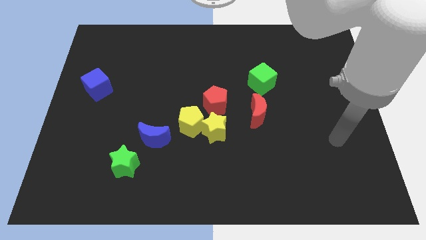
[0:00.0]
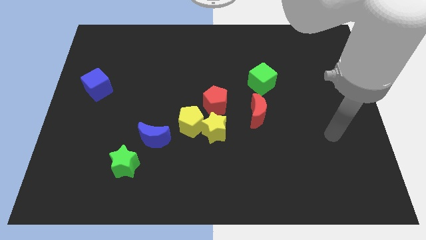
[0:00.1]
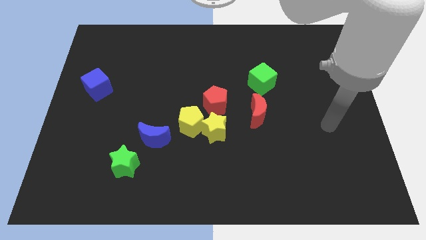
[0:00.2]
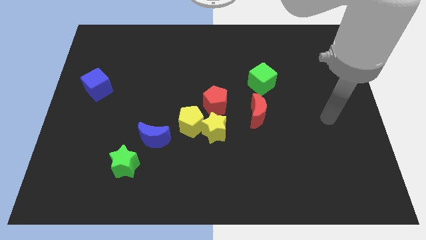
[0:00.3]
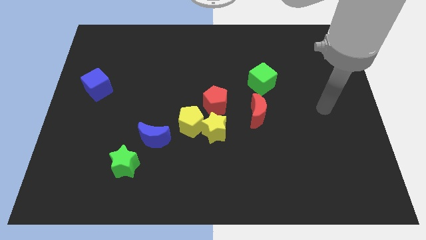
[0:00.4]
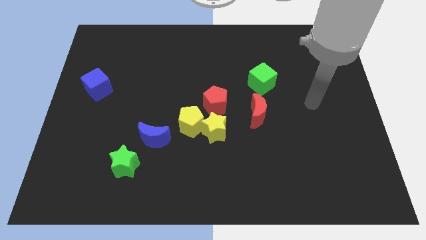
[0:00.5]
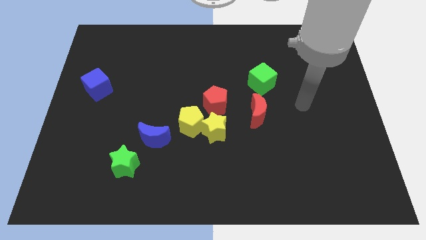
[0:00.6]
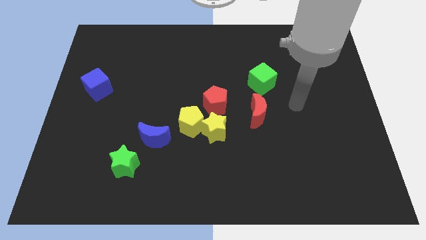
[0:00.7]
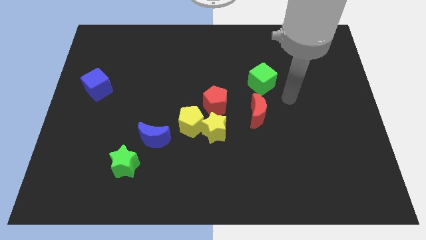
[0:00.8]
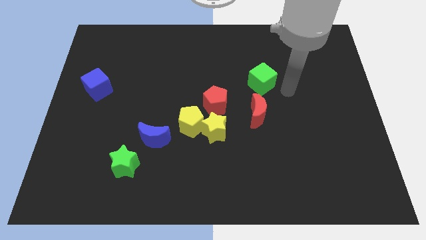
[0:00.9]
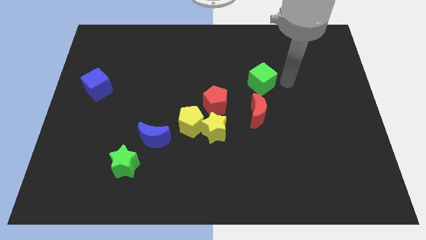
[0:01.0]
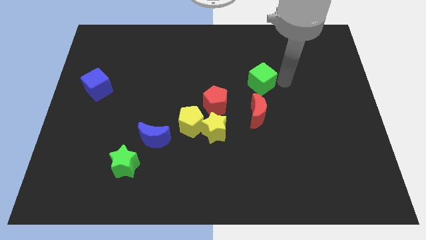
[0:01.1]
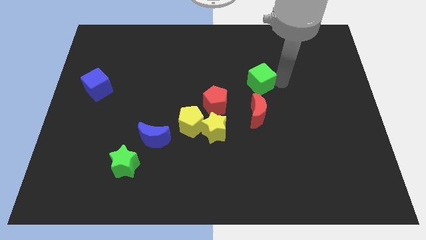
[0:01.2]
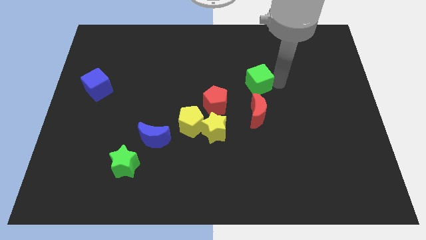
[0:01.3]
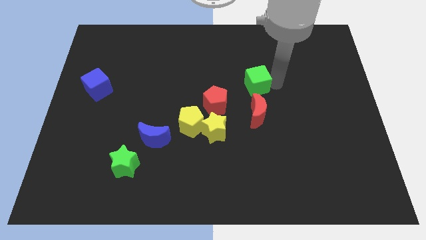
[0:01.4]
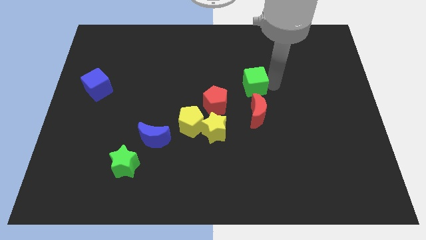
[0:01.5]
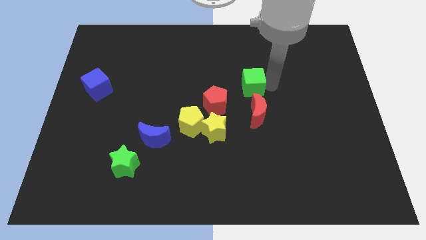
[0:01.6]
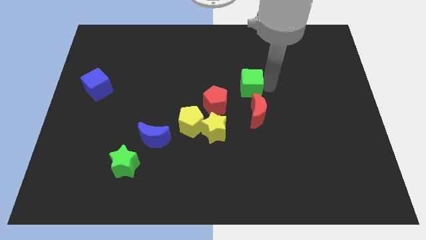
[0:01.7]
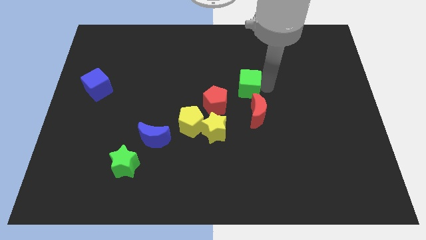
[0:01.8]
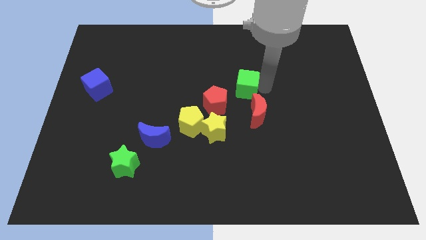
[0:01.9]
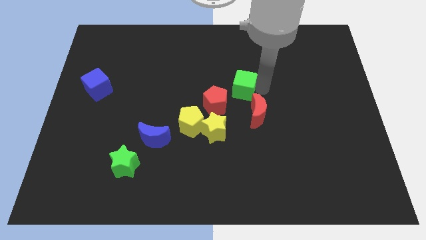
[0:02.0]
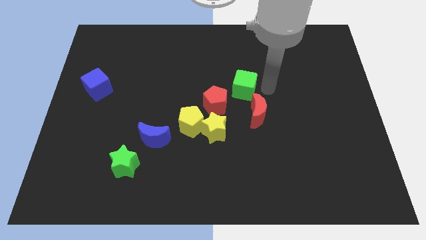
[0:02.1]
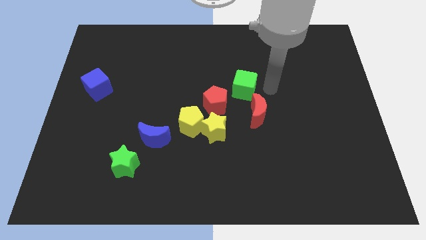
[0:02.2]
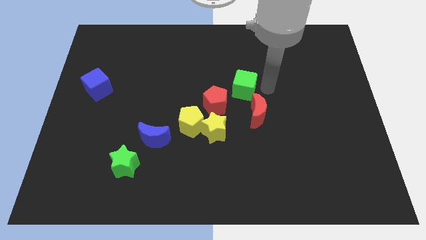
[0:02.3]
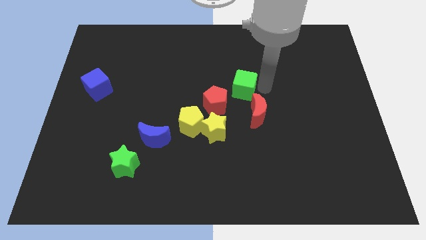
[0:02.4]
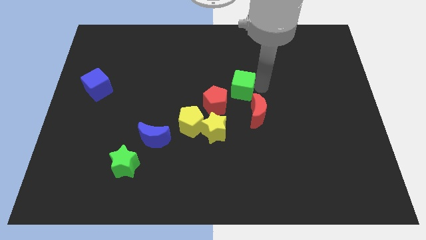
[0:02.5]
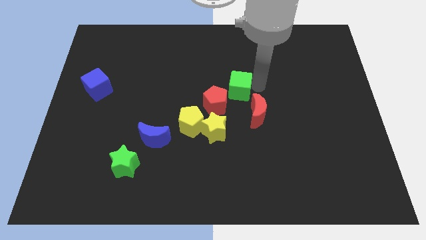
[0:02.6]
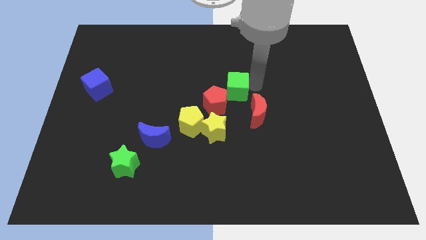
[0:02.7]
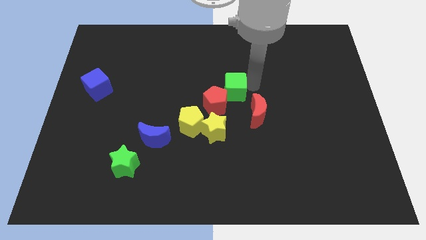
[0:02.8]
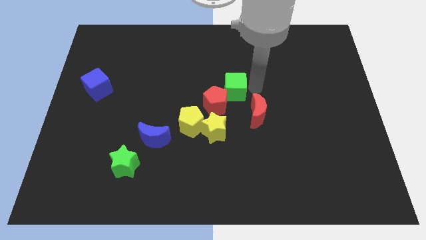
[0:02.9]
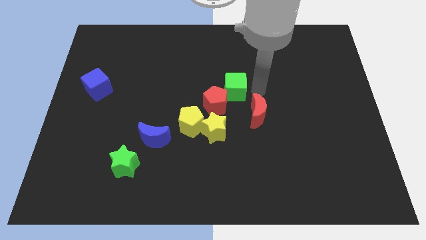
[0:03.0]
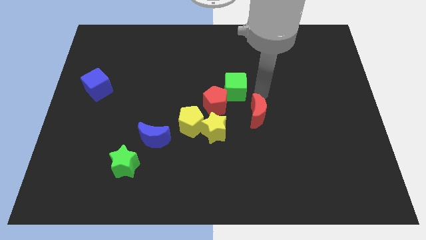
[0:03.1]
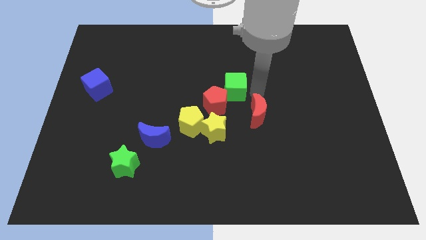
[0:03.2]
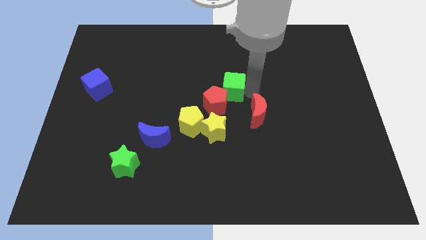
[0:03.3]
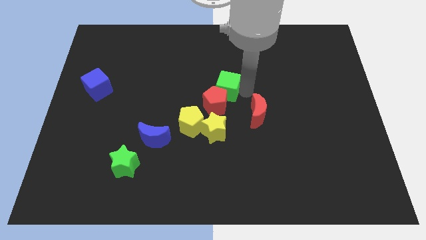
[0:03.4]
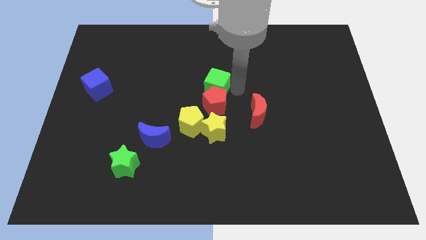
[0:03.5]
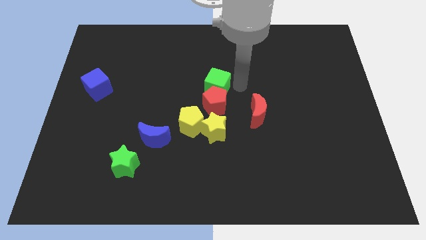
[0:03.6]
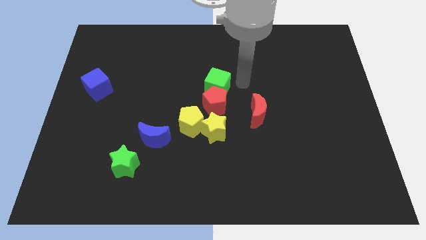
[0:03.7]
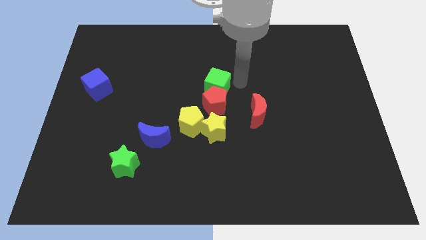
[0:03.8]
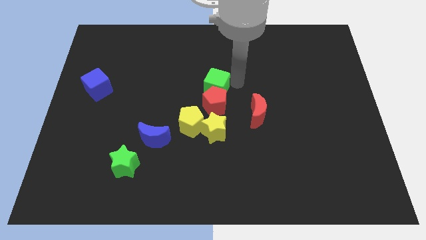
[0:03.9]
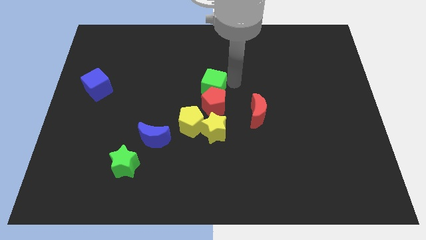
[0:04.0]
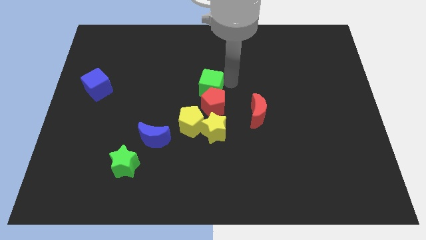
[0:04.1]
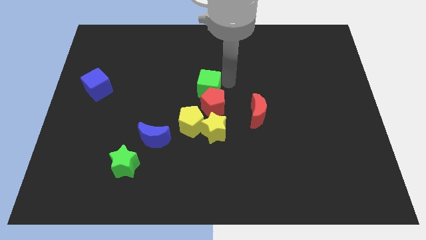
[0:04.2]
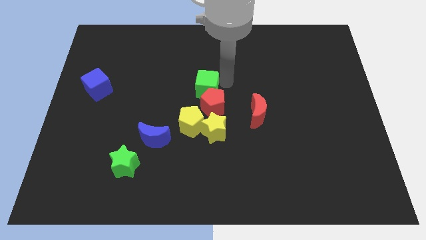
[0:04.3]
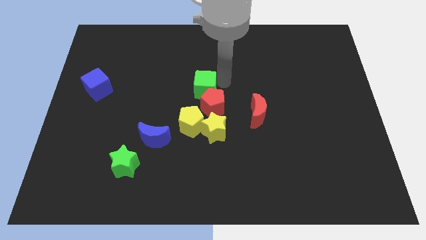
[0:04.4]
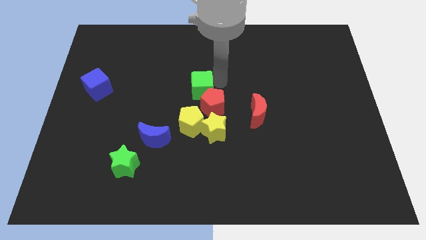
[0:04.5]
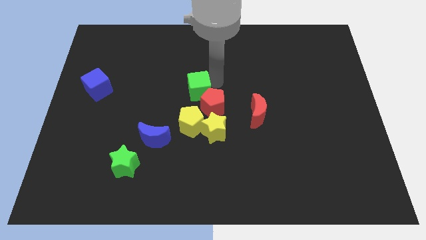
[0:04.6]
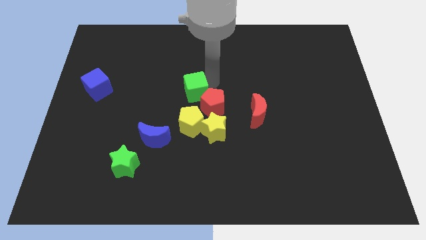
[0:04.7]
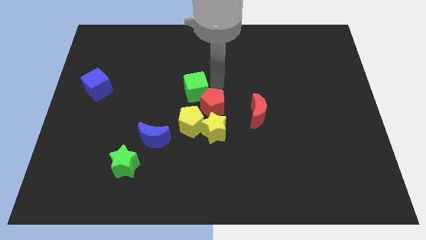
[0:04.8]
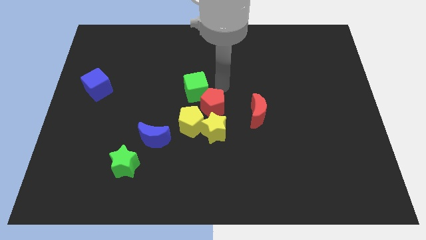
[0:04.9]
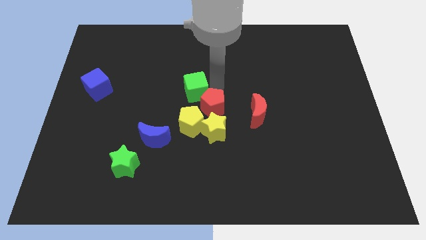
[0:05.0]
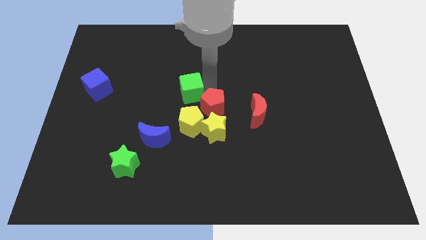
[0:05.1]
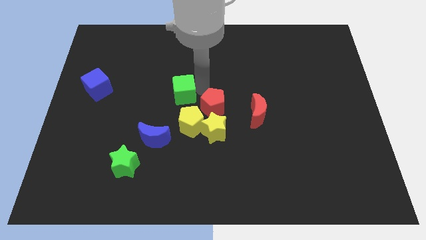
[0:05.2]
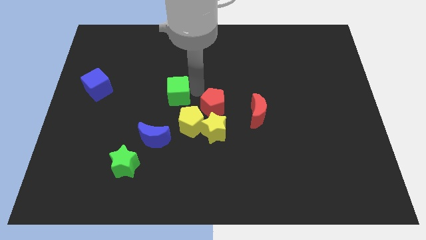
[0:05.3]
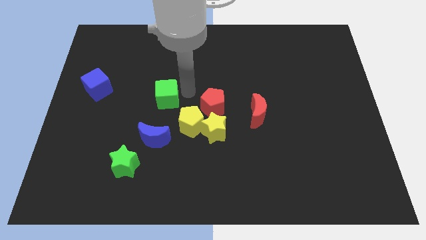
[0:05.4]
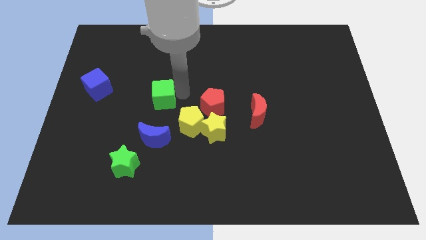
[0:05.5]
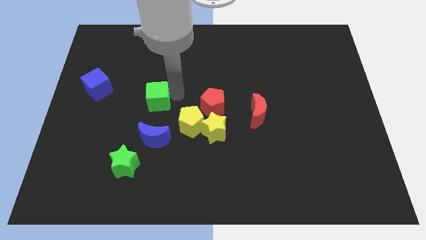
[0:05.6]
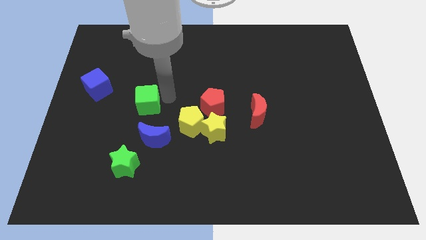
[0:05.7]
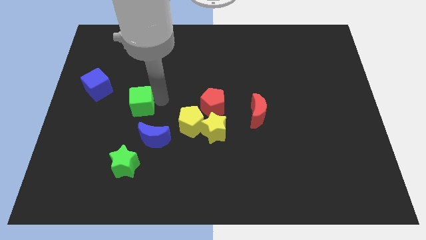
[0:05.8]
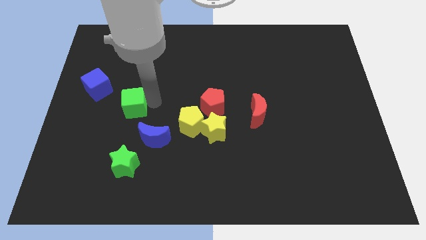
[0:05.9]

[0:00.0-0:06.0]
slide the green cube to the bottom right side of the blue cube

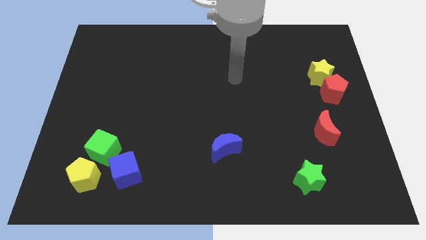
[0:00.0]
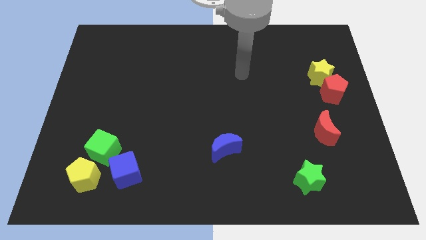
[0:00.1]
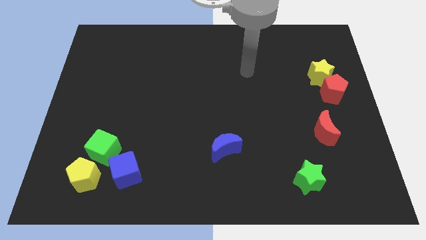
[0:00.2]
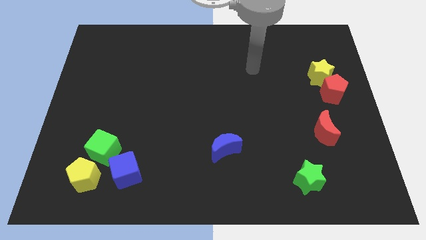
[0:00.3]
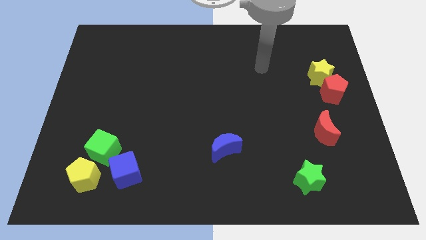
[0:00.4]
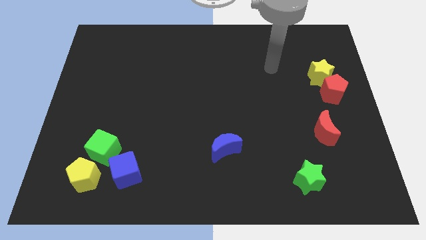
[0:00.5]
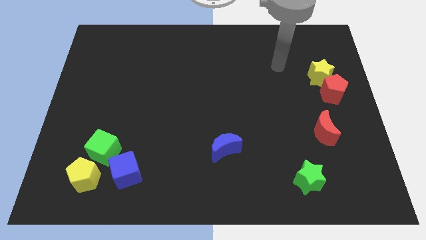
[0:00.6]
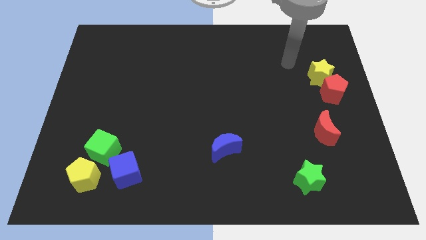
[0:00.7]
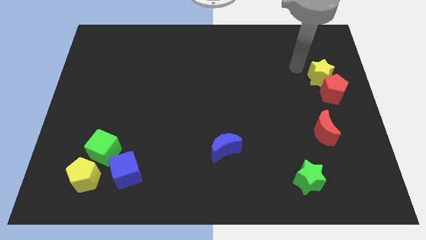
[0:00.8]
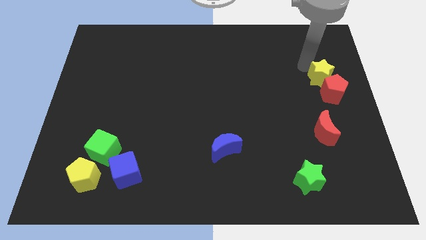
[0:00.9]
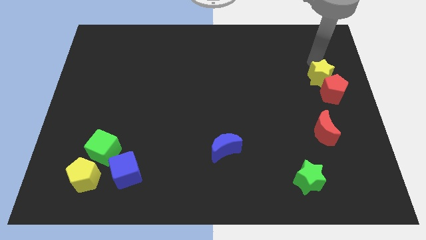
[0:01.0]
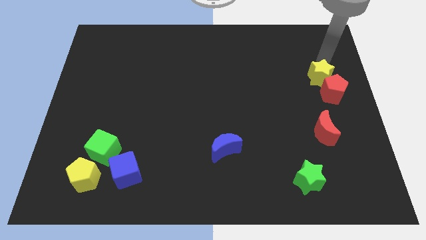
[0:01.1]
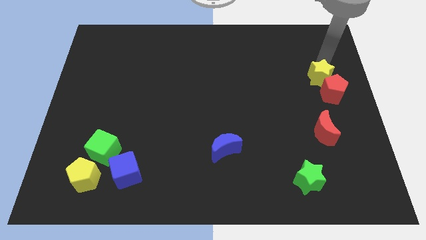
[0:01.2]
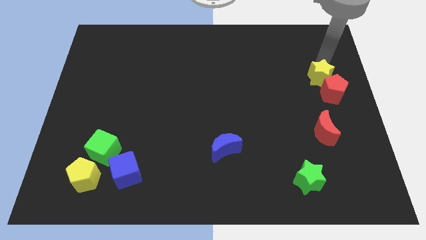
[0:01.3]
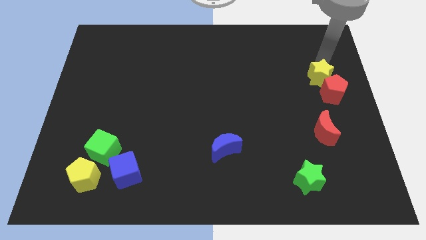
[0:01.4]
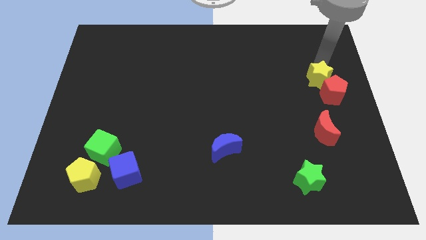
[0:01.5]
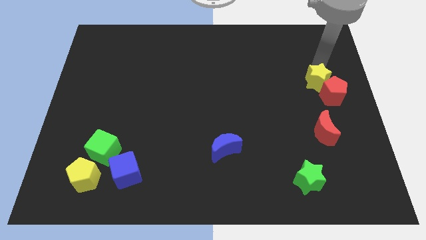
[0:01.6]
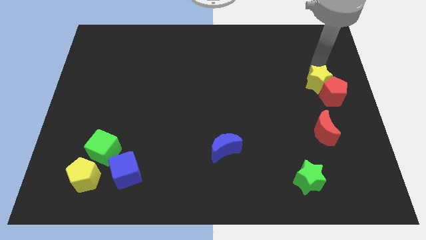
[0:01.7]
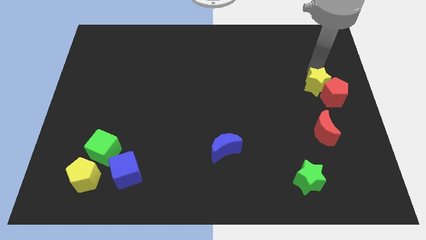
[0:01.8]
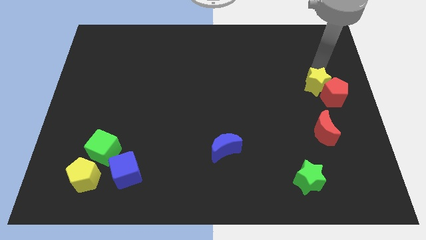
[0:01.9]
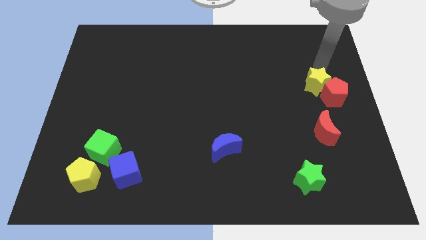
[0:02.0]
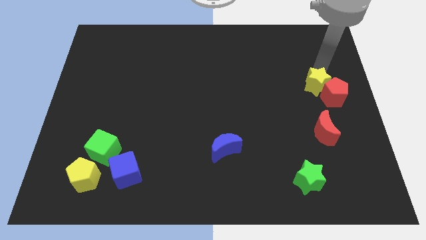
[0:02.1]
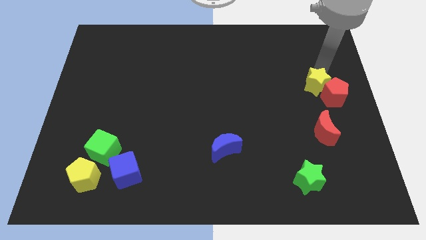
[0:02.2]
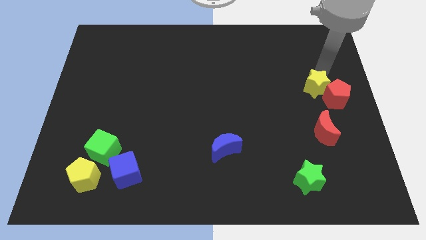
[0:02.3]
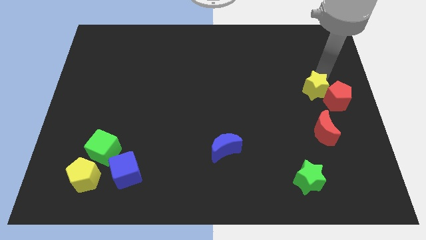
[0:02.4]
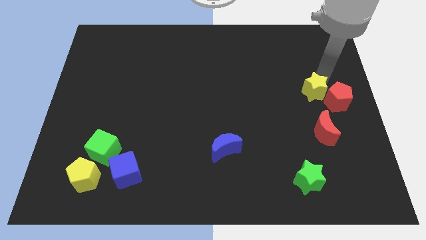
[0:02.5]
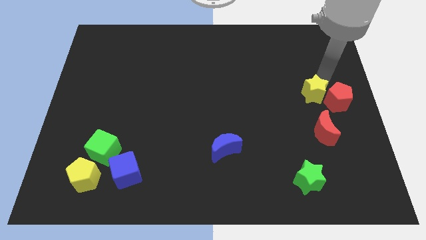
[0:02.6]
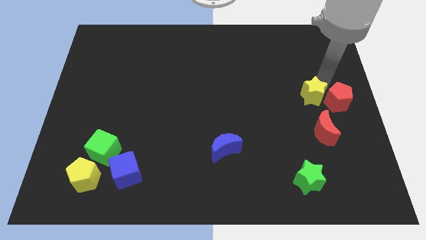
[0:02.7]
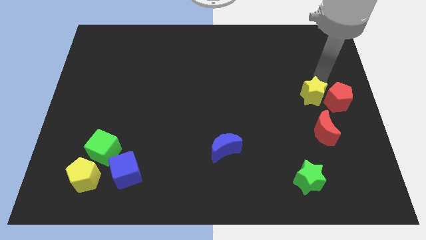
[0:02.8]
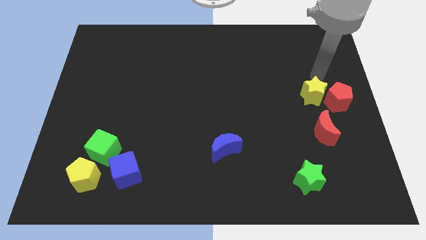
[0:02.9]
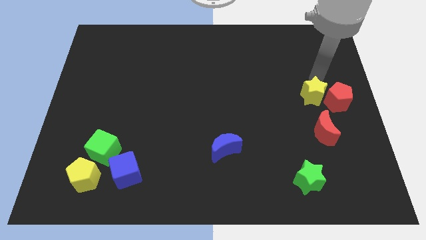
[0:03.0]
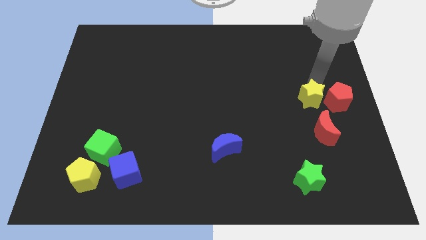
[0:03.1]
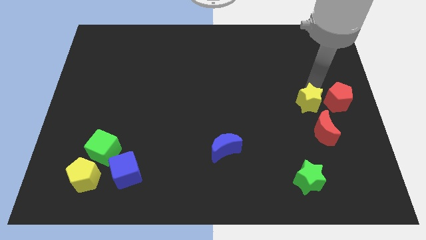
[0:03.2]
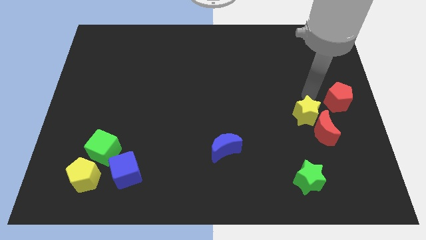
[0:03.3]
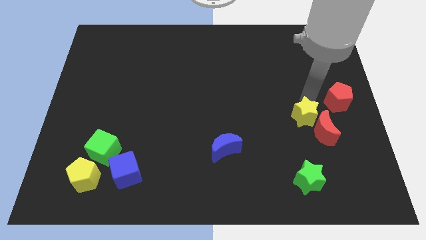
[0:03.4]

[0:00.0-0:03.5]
put the yellow star above the green star
